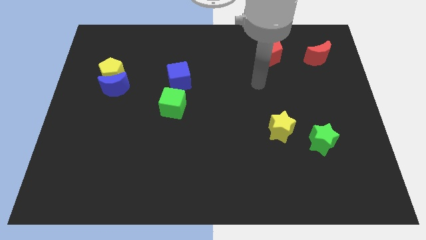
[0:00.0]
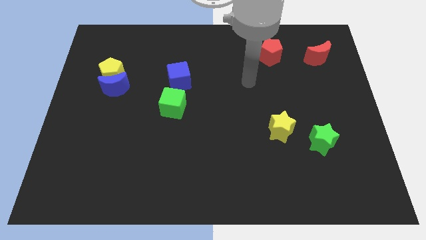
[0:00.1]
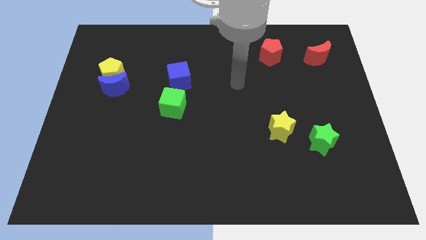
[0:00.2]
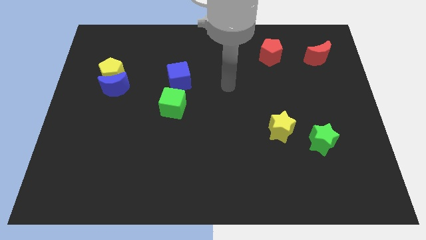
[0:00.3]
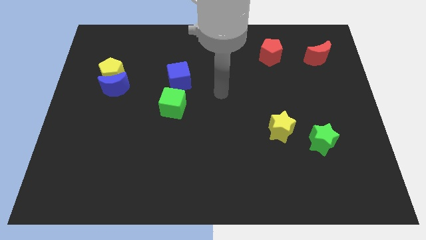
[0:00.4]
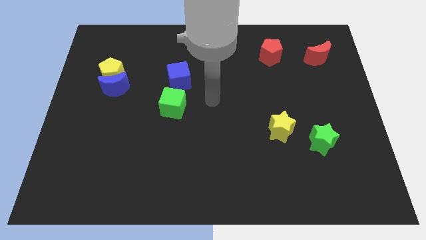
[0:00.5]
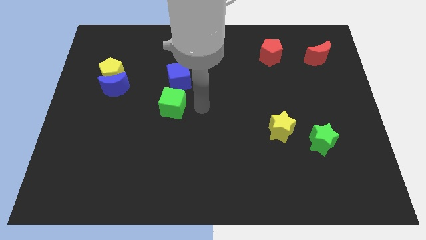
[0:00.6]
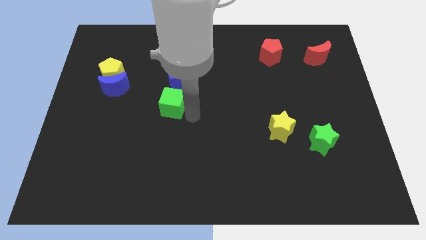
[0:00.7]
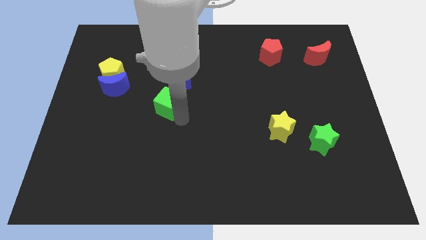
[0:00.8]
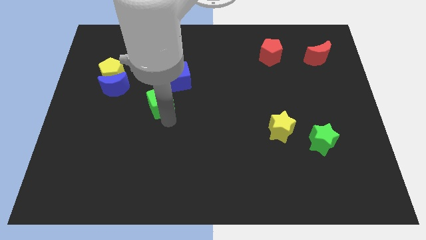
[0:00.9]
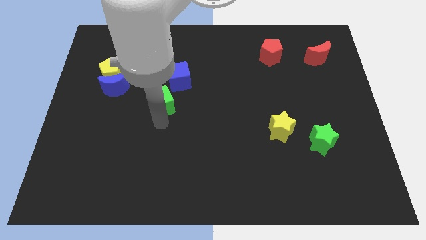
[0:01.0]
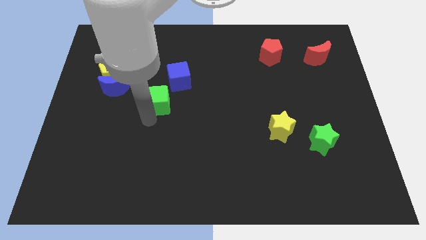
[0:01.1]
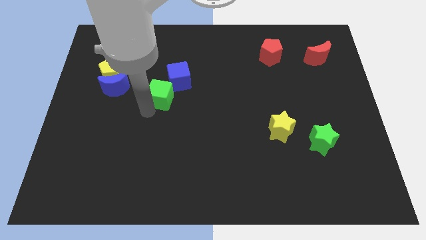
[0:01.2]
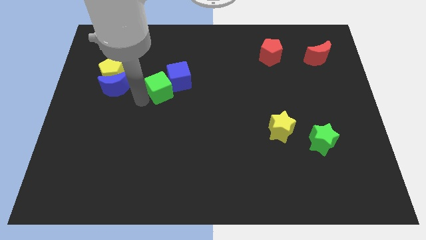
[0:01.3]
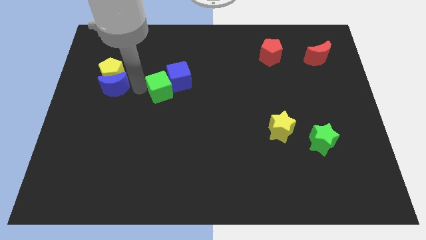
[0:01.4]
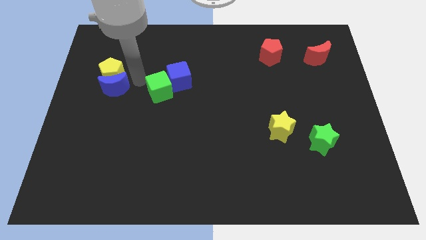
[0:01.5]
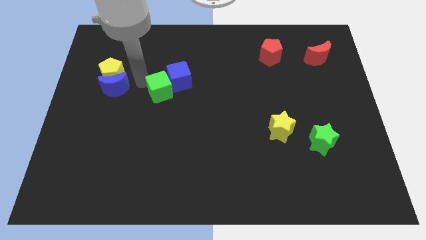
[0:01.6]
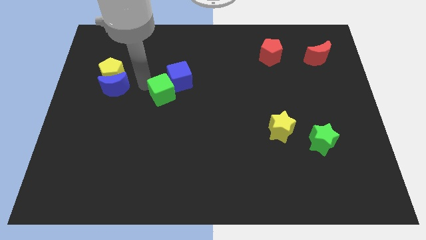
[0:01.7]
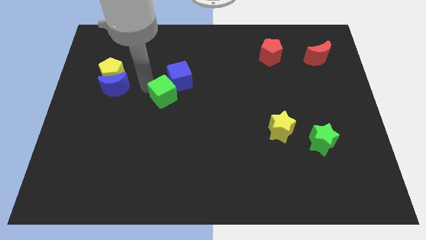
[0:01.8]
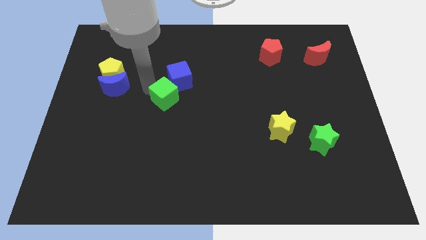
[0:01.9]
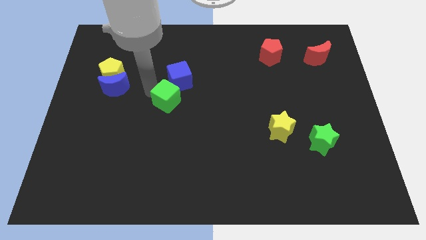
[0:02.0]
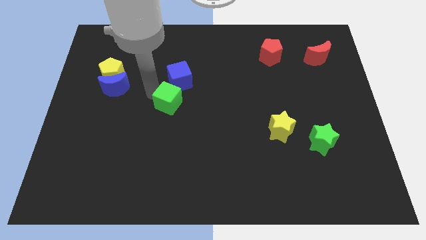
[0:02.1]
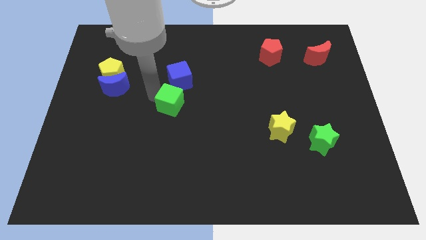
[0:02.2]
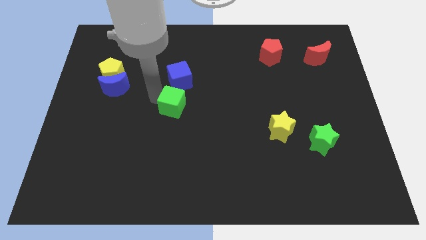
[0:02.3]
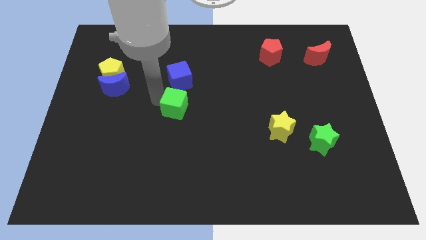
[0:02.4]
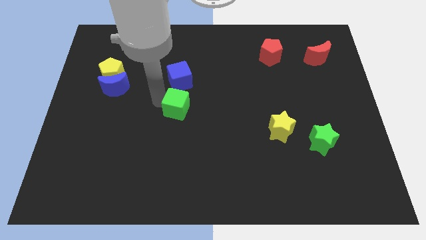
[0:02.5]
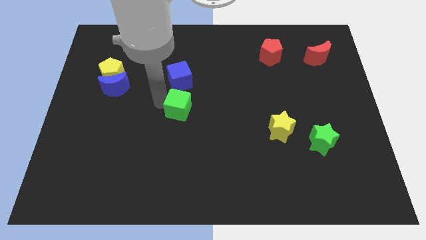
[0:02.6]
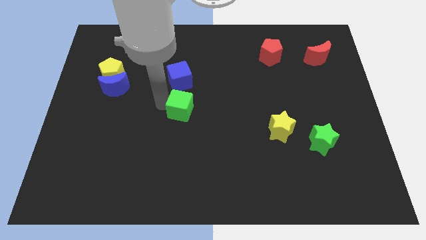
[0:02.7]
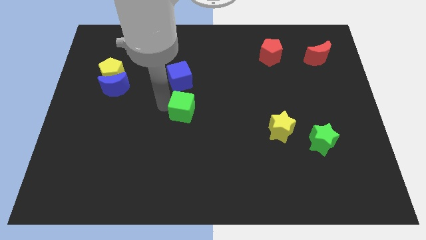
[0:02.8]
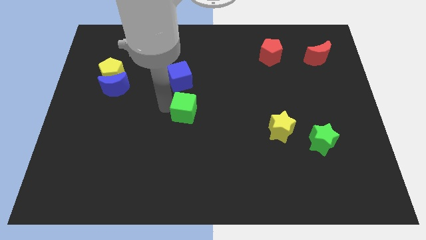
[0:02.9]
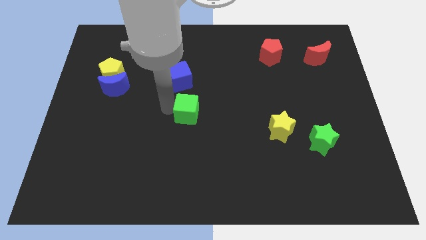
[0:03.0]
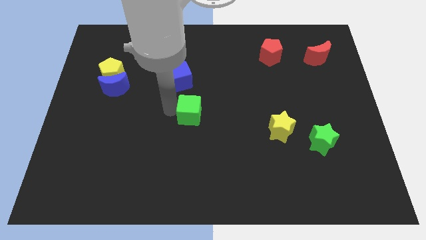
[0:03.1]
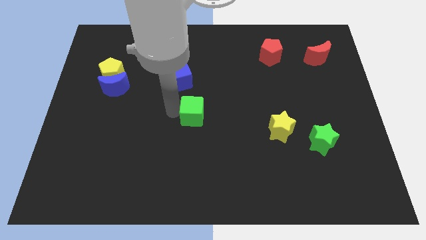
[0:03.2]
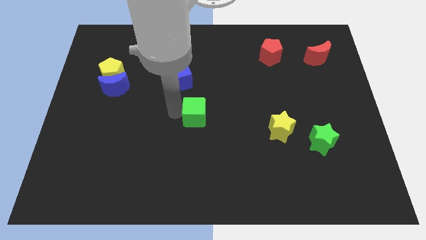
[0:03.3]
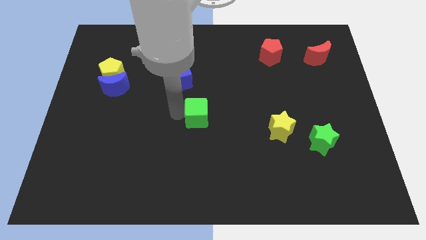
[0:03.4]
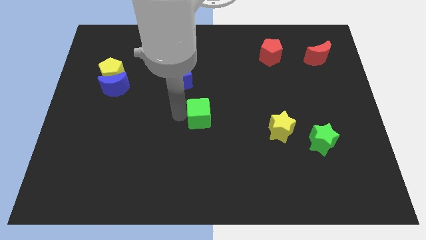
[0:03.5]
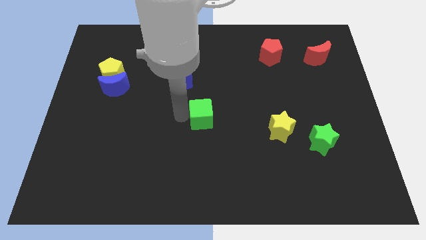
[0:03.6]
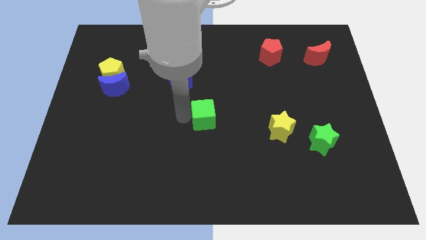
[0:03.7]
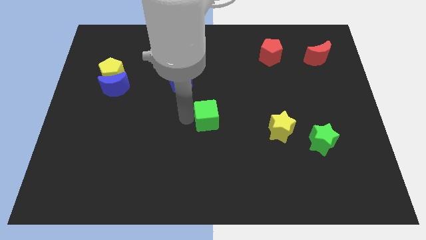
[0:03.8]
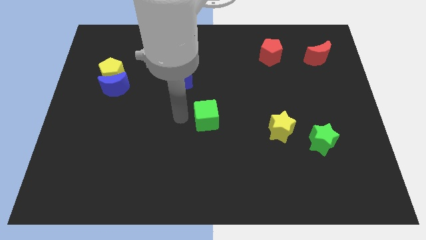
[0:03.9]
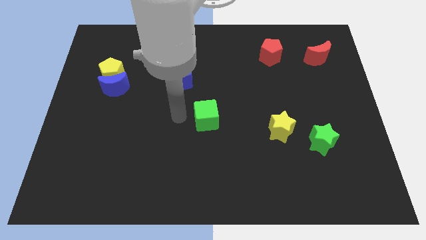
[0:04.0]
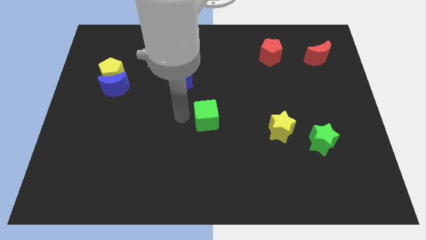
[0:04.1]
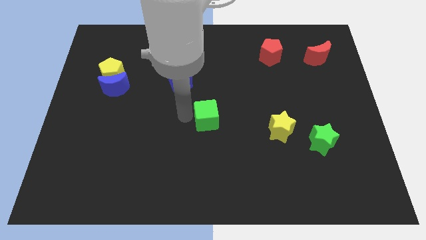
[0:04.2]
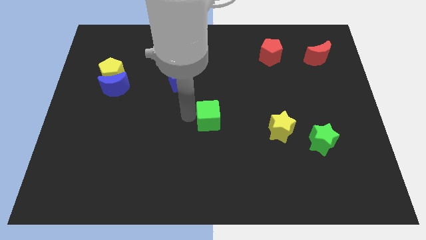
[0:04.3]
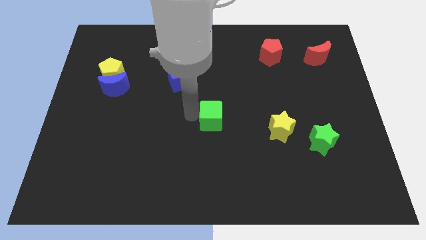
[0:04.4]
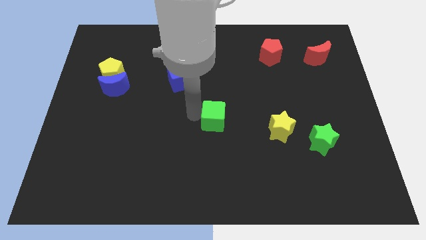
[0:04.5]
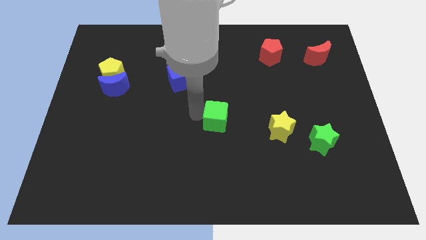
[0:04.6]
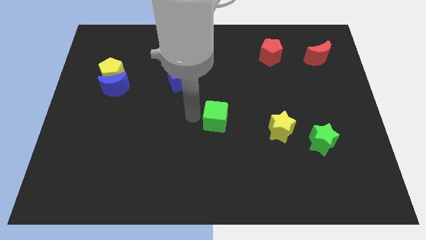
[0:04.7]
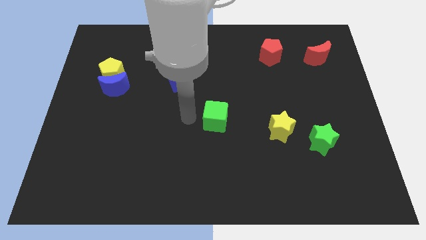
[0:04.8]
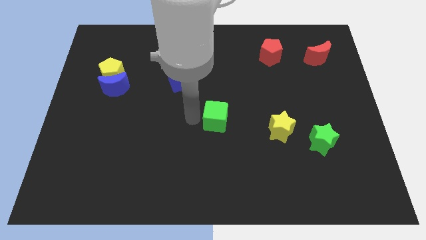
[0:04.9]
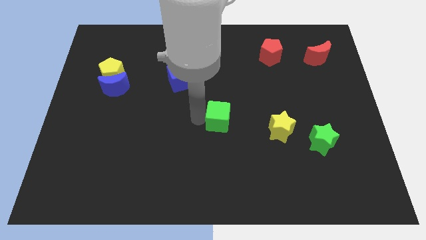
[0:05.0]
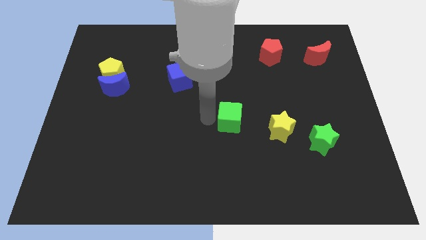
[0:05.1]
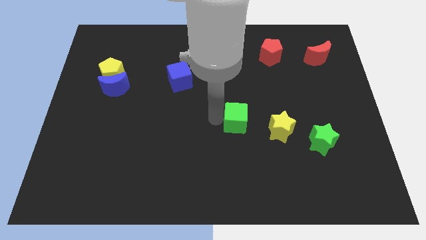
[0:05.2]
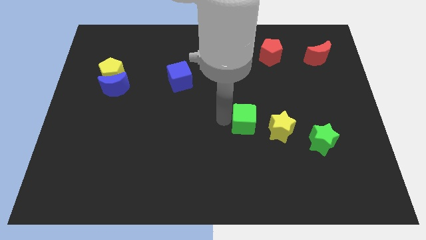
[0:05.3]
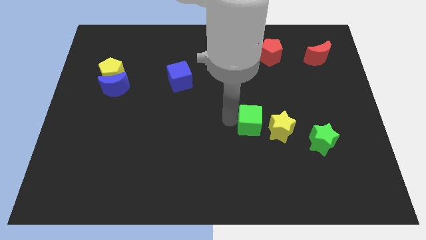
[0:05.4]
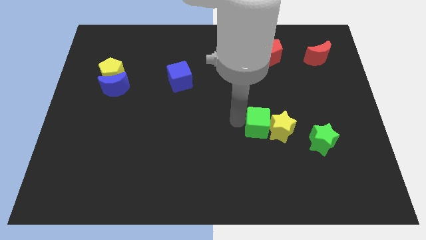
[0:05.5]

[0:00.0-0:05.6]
slide the green cube to the yellow star

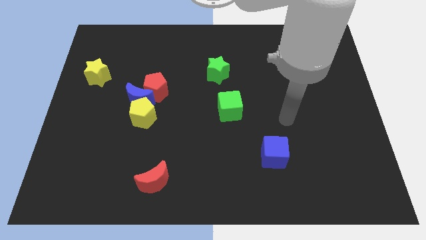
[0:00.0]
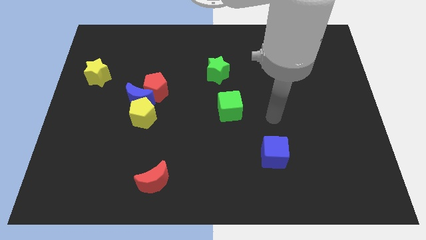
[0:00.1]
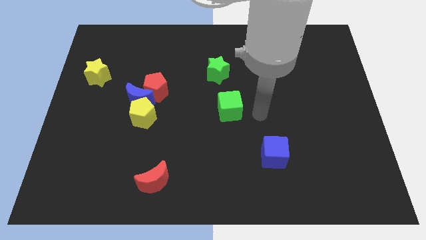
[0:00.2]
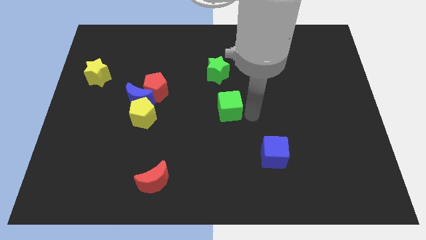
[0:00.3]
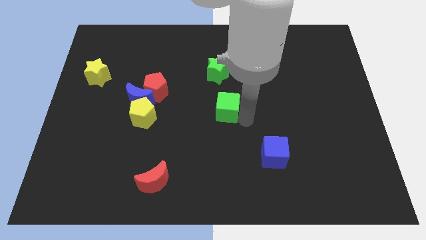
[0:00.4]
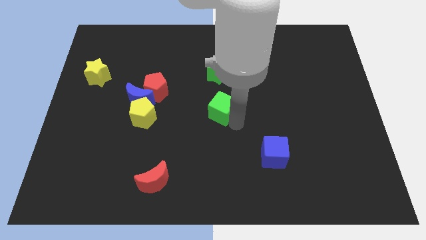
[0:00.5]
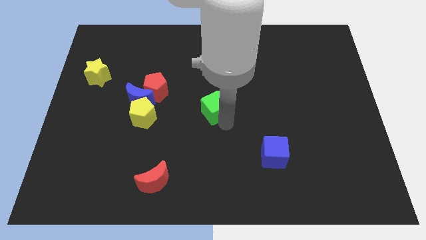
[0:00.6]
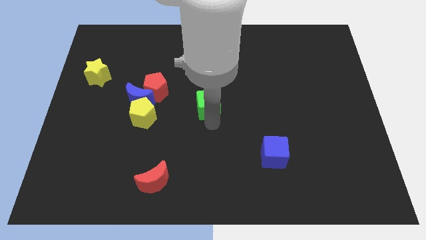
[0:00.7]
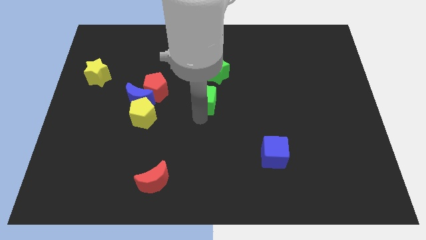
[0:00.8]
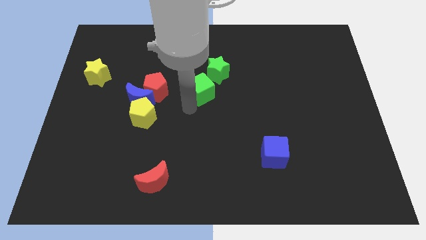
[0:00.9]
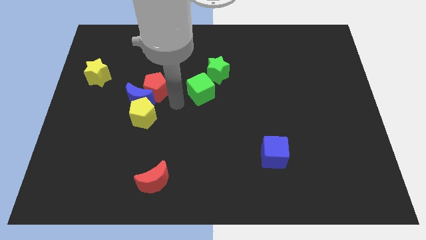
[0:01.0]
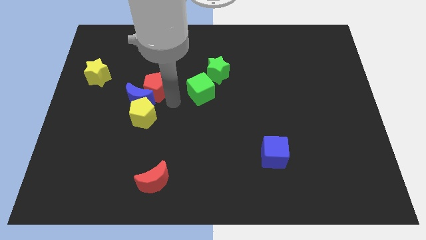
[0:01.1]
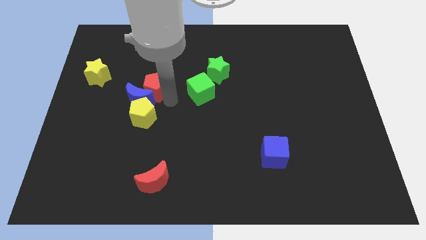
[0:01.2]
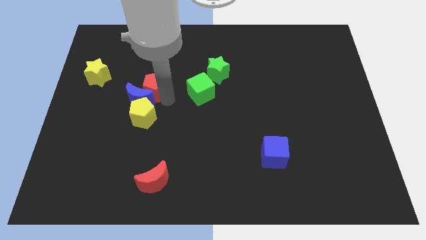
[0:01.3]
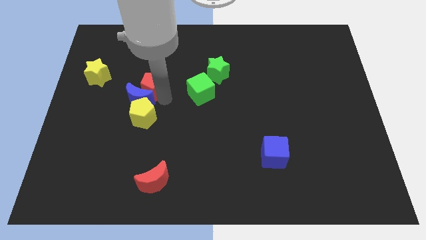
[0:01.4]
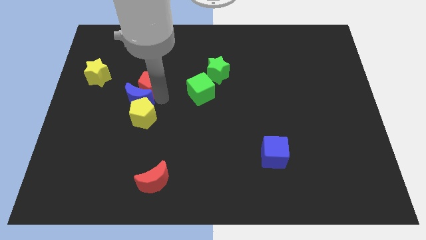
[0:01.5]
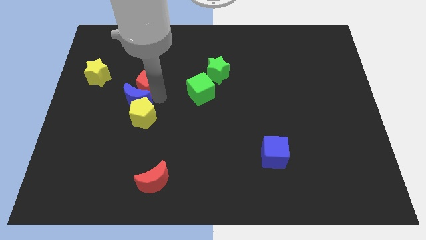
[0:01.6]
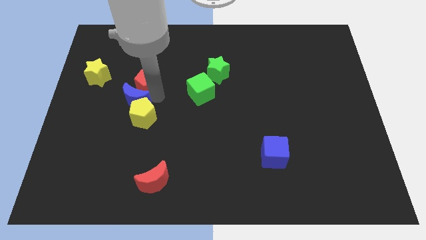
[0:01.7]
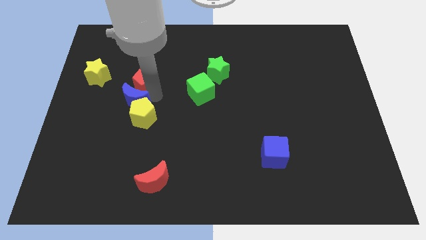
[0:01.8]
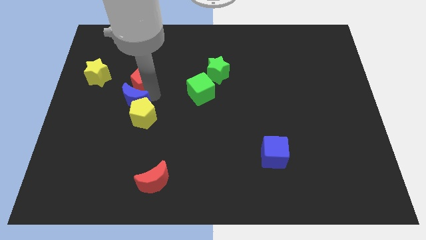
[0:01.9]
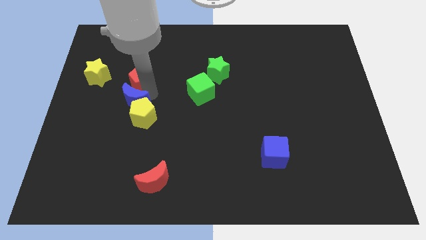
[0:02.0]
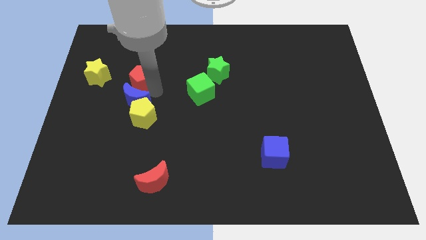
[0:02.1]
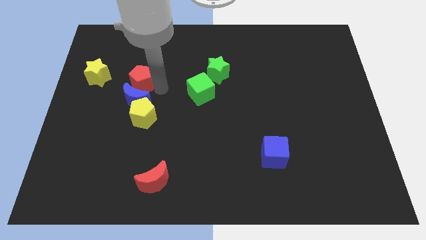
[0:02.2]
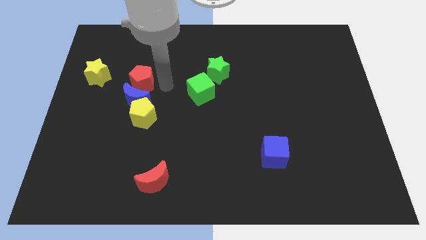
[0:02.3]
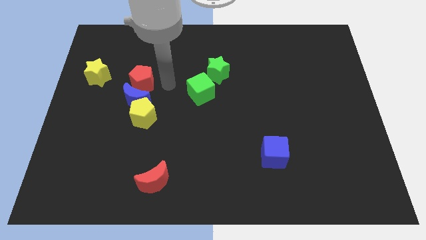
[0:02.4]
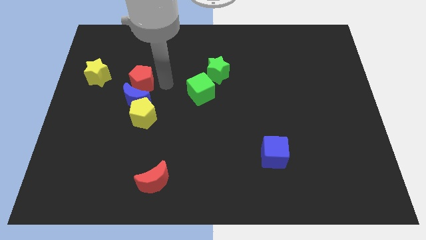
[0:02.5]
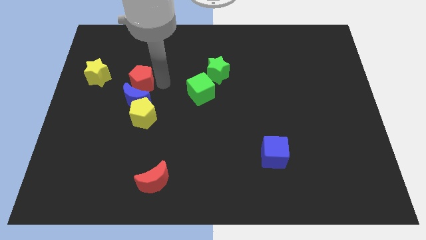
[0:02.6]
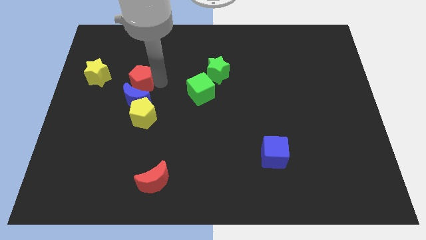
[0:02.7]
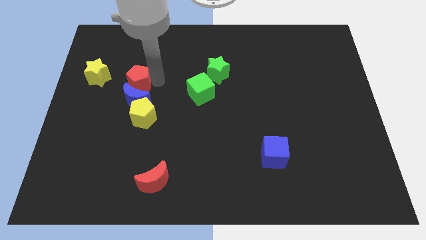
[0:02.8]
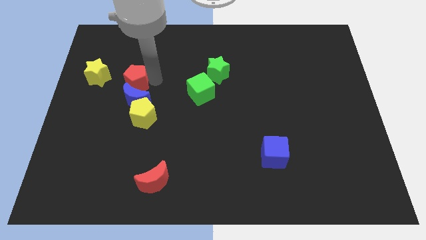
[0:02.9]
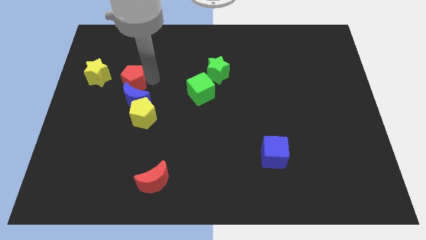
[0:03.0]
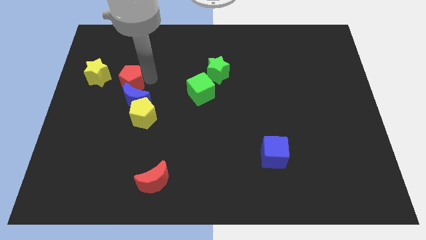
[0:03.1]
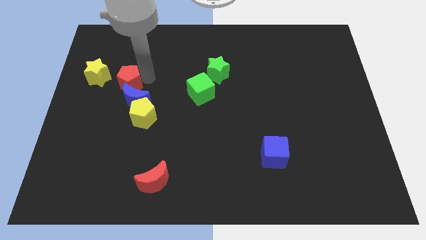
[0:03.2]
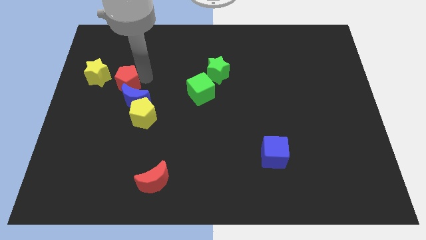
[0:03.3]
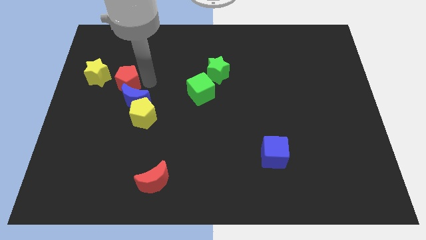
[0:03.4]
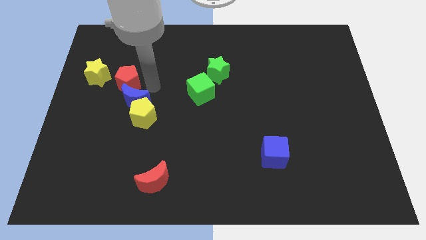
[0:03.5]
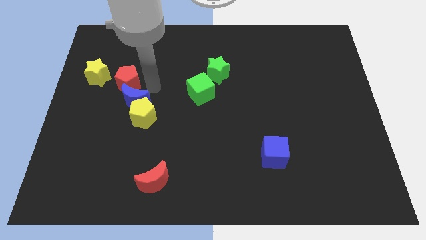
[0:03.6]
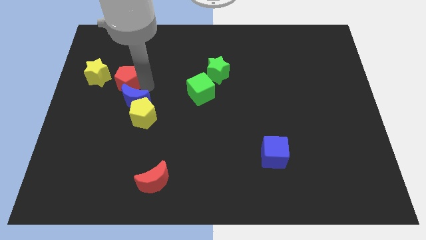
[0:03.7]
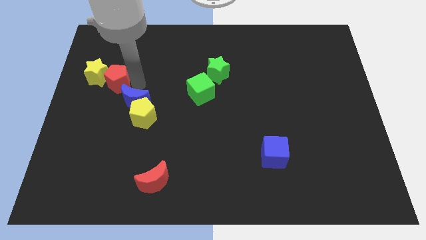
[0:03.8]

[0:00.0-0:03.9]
slide the red pentagon to the yellow star
